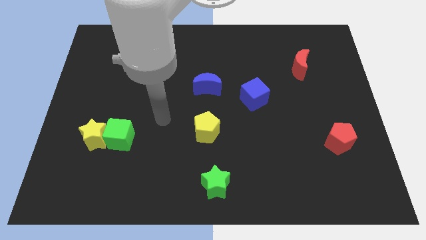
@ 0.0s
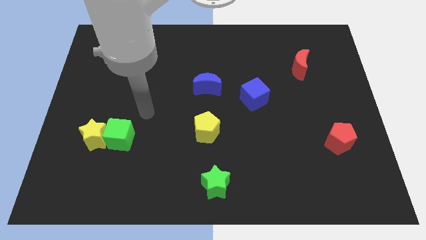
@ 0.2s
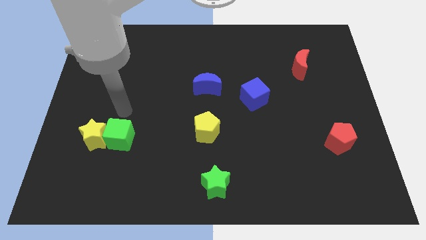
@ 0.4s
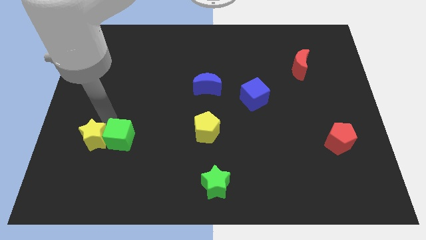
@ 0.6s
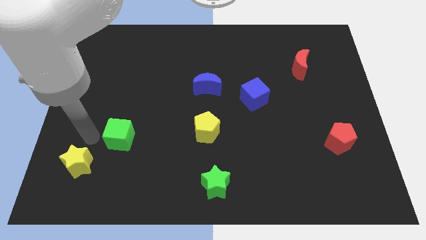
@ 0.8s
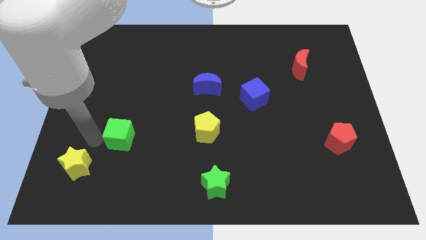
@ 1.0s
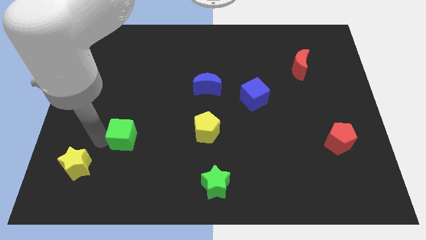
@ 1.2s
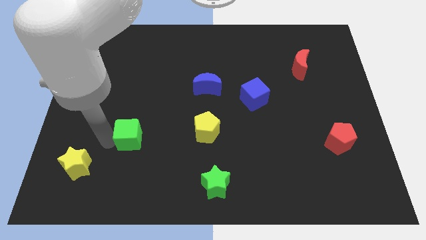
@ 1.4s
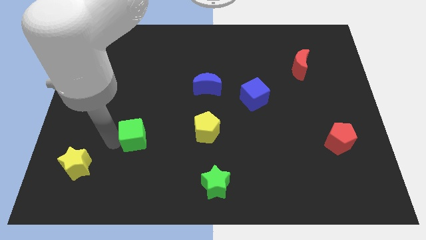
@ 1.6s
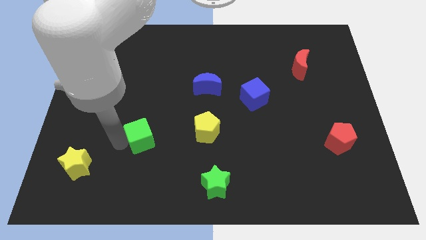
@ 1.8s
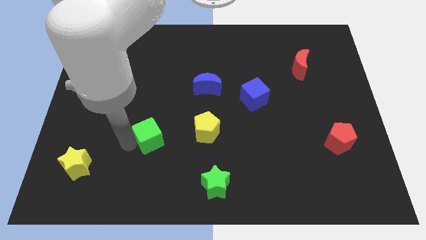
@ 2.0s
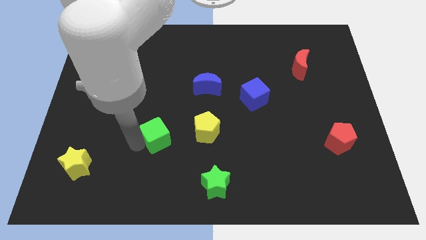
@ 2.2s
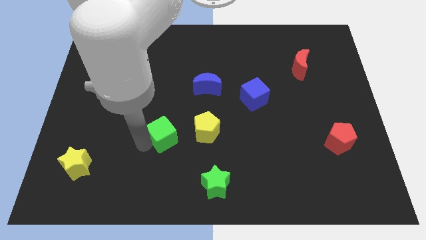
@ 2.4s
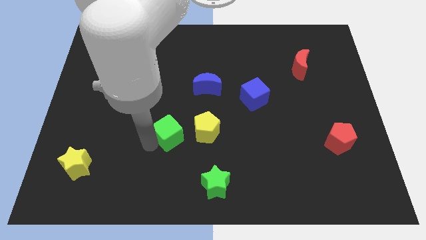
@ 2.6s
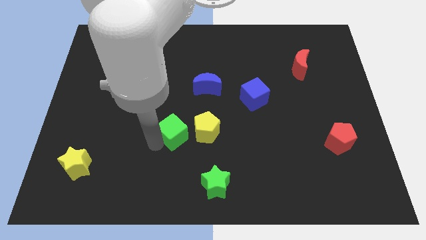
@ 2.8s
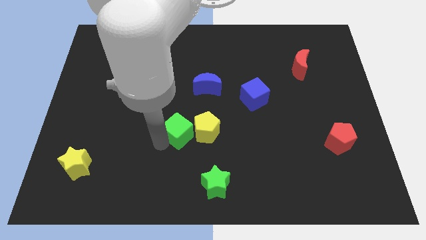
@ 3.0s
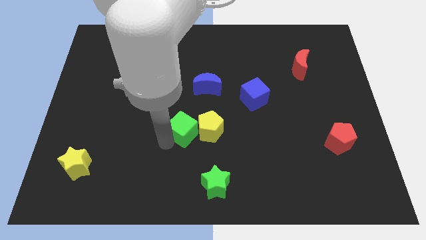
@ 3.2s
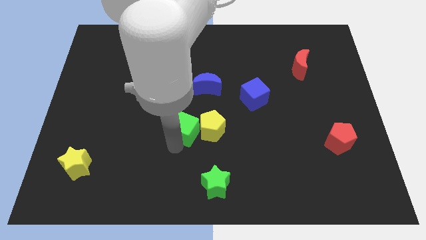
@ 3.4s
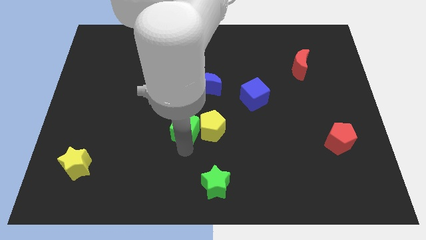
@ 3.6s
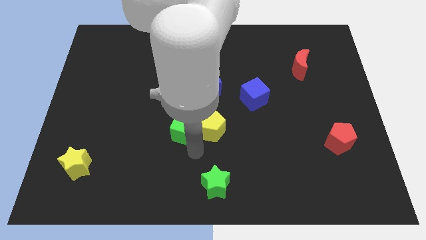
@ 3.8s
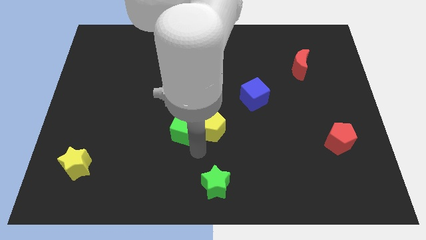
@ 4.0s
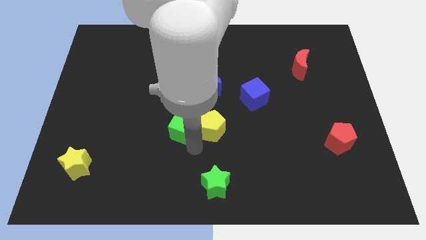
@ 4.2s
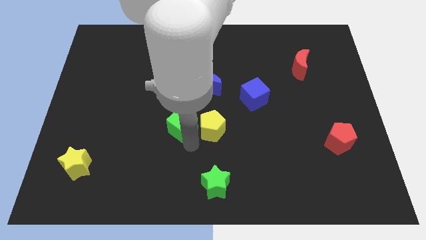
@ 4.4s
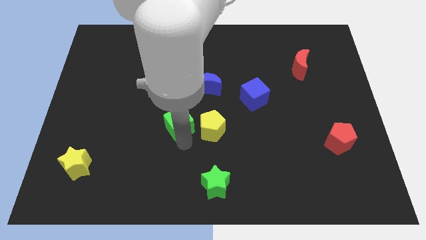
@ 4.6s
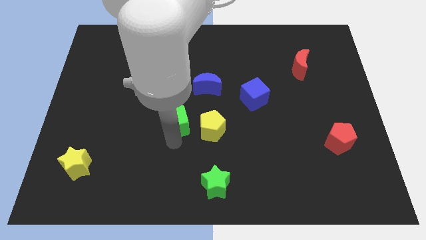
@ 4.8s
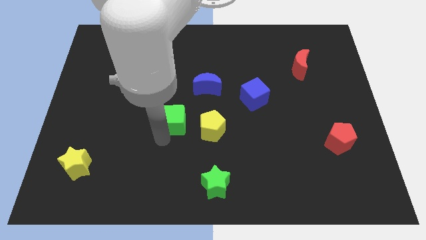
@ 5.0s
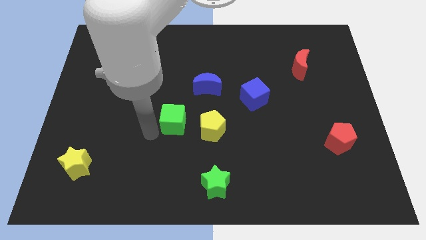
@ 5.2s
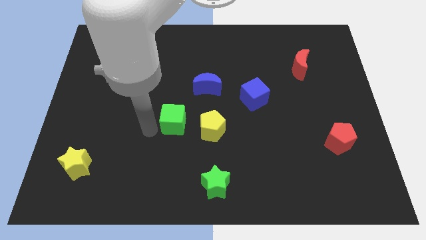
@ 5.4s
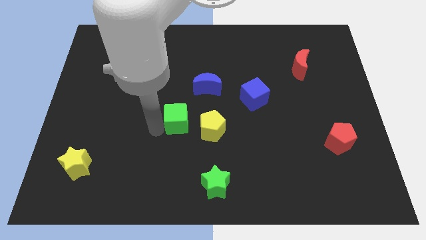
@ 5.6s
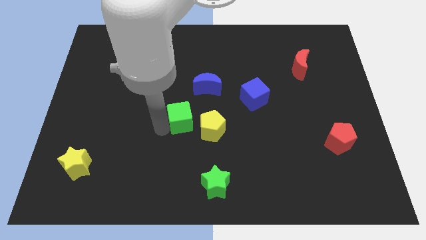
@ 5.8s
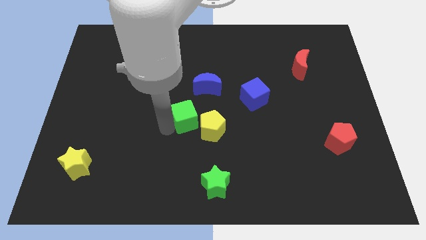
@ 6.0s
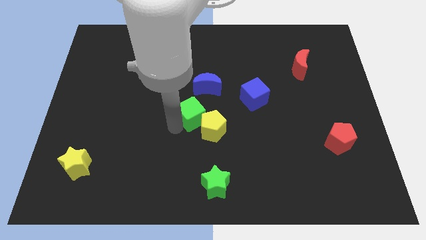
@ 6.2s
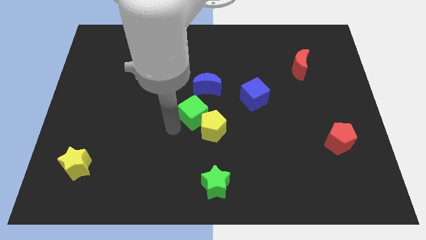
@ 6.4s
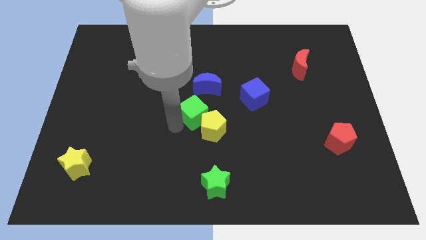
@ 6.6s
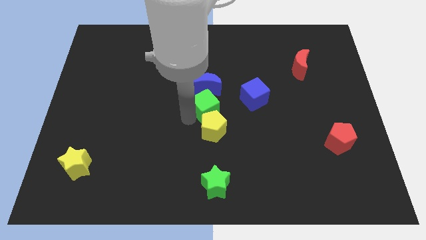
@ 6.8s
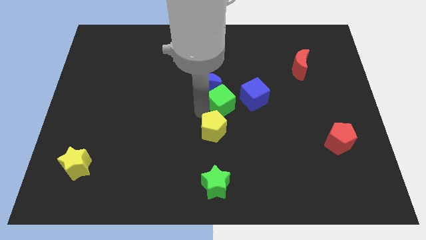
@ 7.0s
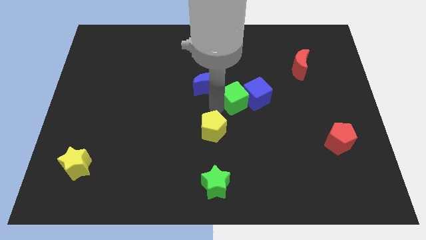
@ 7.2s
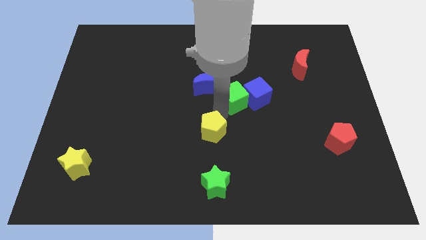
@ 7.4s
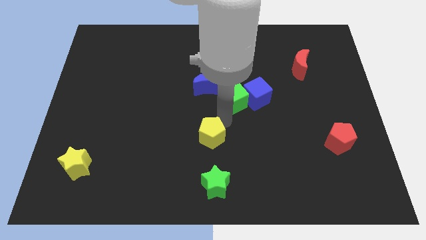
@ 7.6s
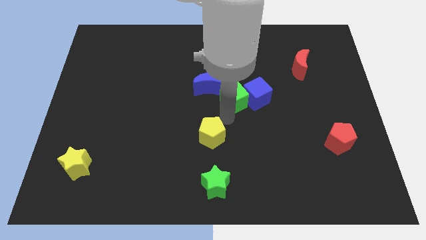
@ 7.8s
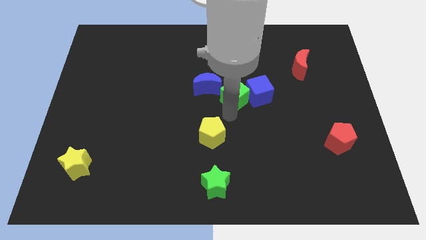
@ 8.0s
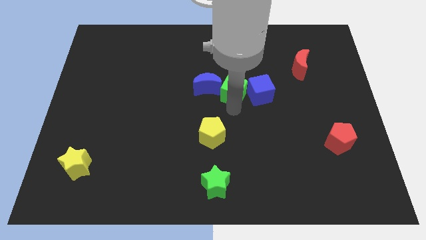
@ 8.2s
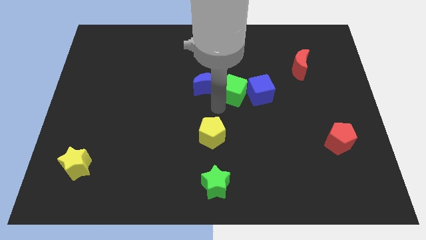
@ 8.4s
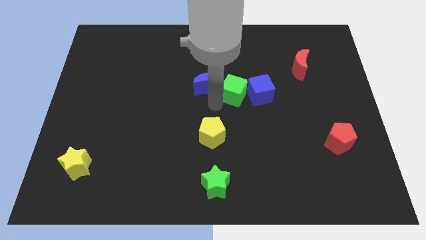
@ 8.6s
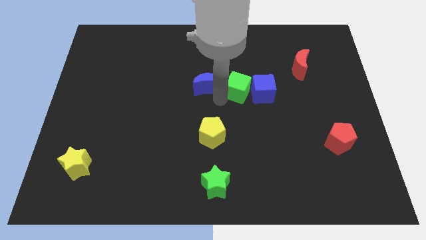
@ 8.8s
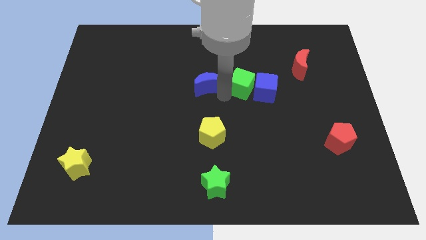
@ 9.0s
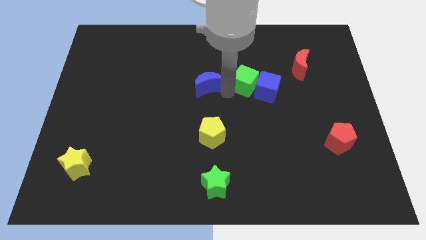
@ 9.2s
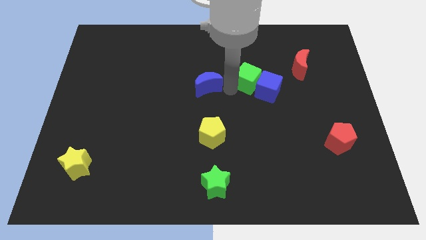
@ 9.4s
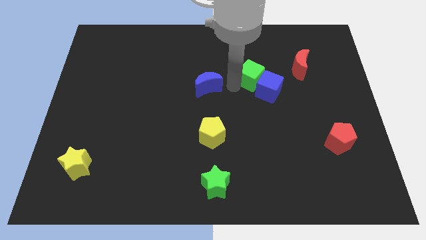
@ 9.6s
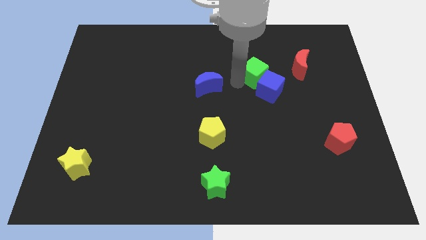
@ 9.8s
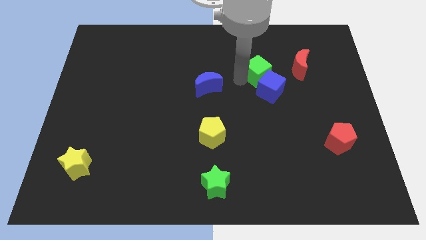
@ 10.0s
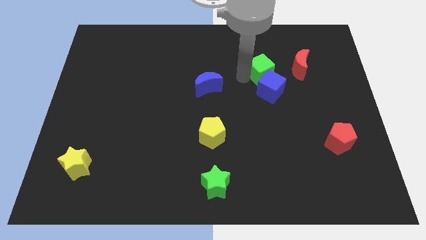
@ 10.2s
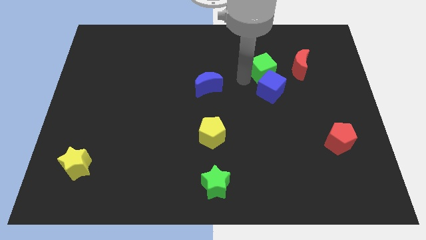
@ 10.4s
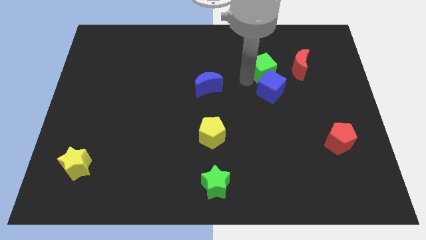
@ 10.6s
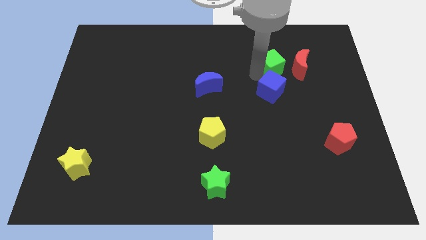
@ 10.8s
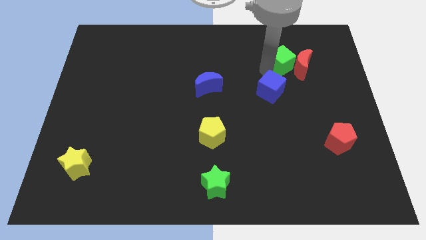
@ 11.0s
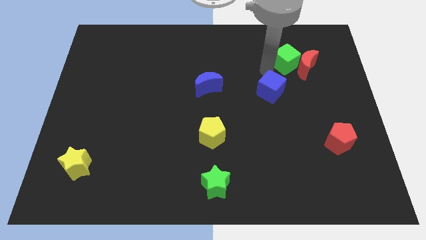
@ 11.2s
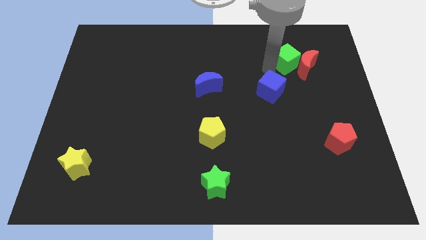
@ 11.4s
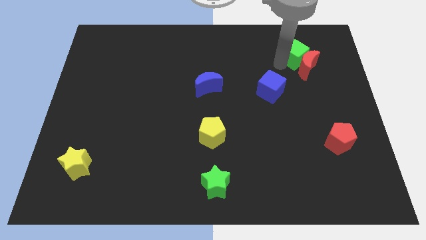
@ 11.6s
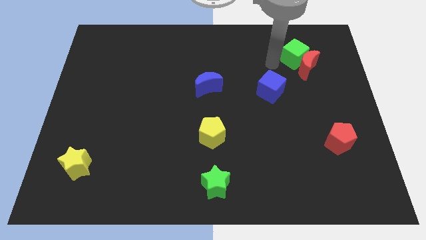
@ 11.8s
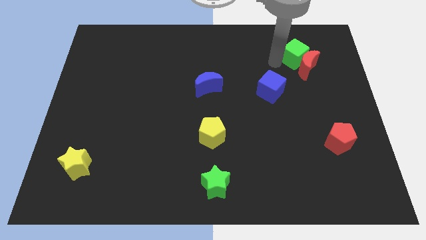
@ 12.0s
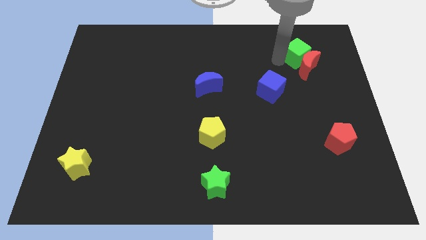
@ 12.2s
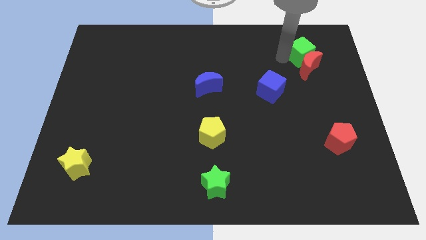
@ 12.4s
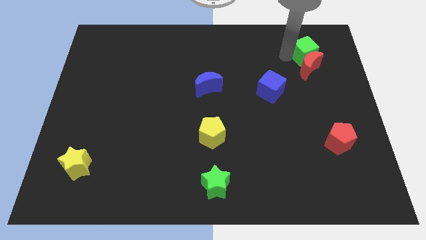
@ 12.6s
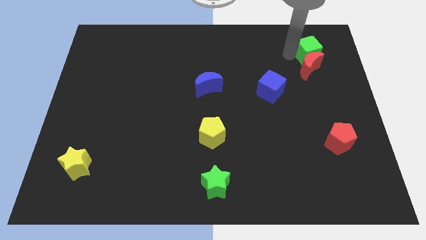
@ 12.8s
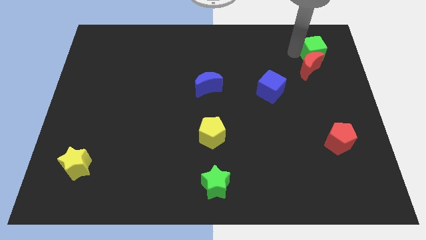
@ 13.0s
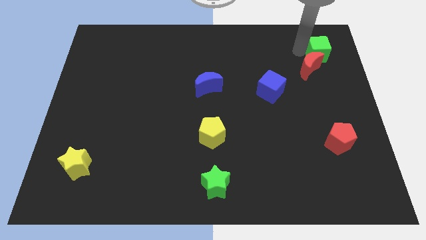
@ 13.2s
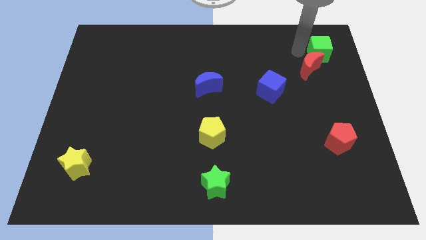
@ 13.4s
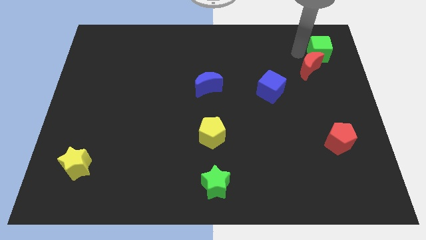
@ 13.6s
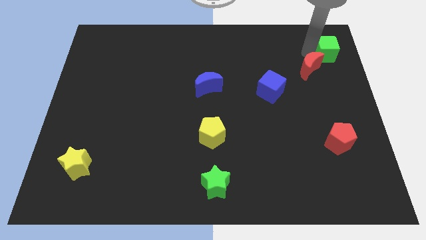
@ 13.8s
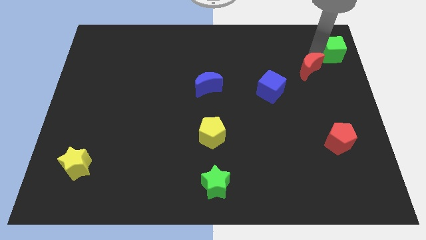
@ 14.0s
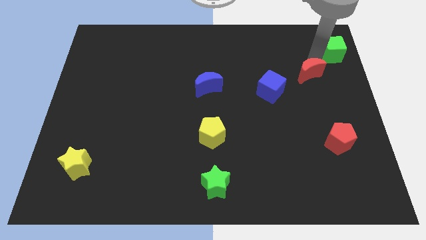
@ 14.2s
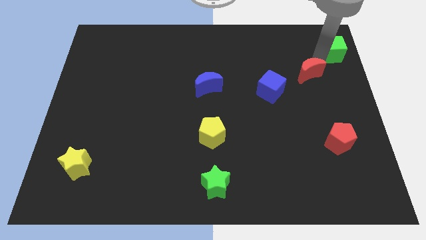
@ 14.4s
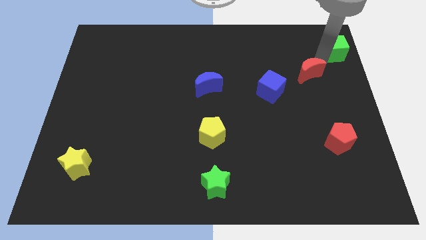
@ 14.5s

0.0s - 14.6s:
move the green cube to the top right
